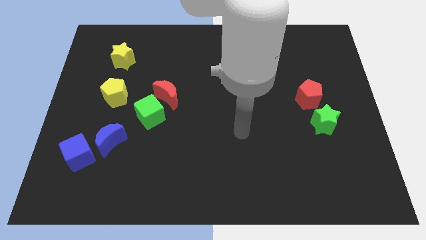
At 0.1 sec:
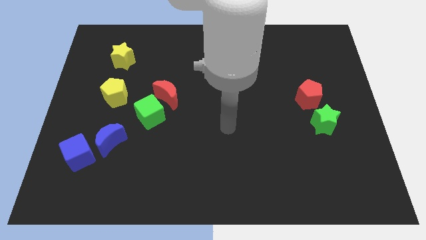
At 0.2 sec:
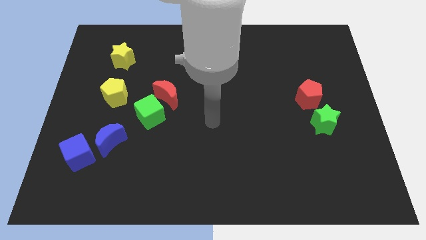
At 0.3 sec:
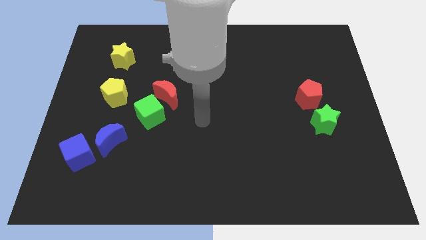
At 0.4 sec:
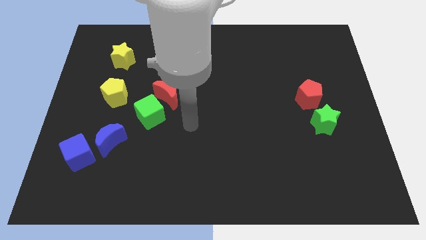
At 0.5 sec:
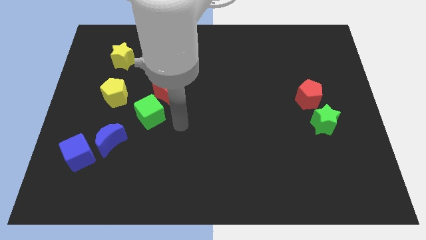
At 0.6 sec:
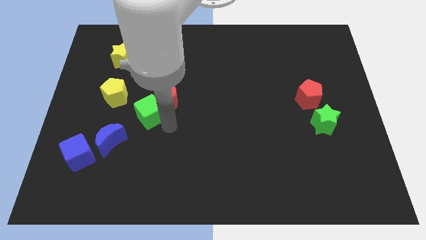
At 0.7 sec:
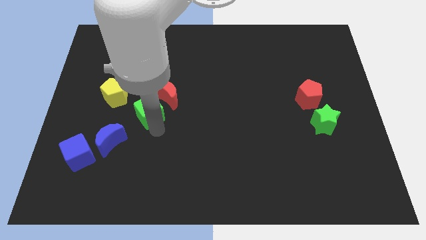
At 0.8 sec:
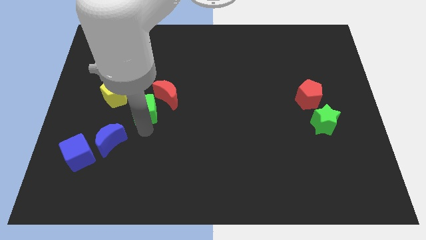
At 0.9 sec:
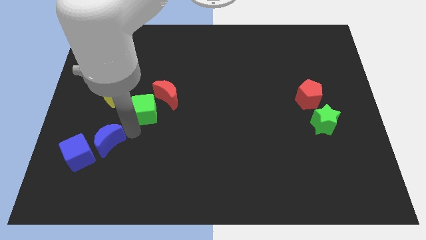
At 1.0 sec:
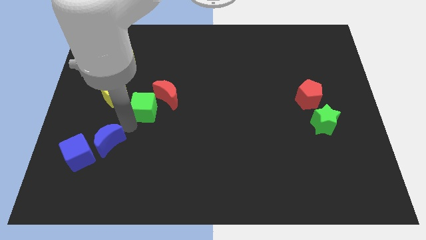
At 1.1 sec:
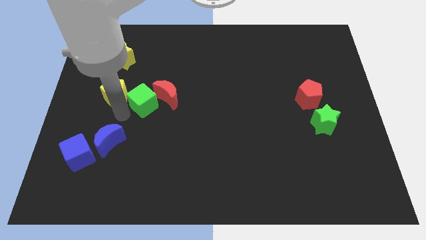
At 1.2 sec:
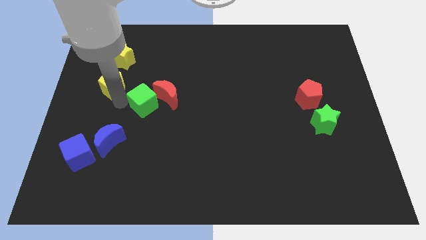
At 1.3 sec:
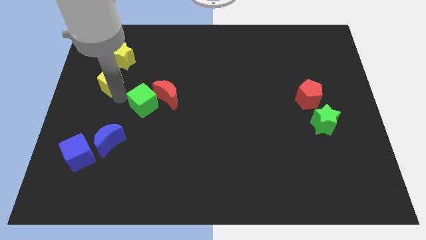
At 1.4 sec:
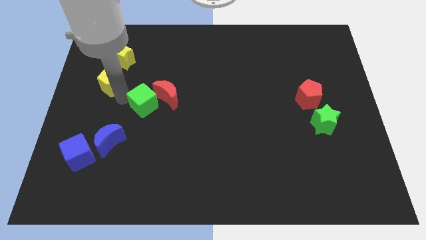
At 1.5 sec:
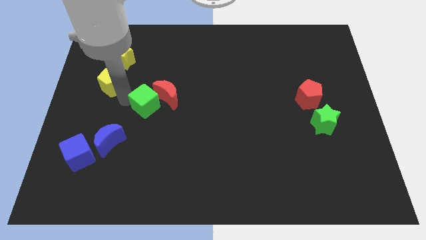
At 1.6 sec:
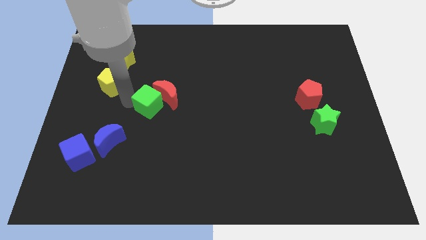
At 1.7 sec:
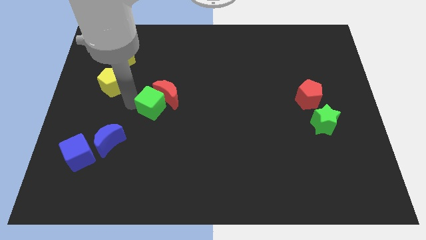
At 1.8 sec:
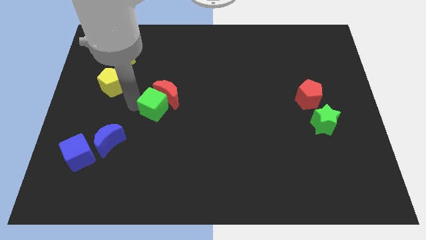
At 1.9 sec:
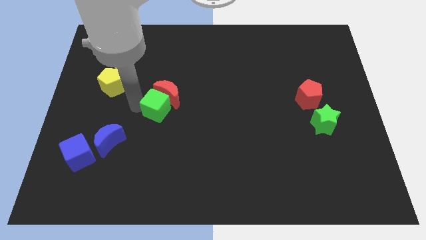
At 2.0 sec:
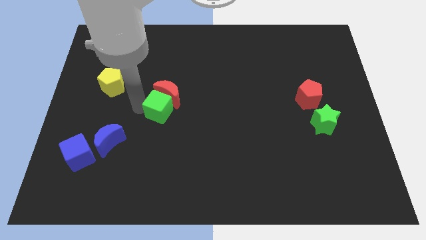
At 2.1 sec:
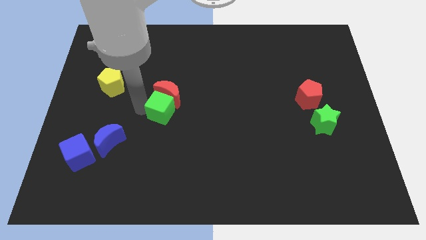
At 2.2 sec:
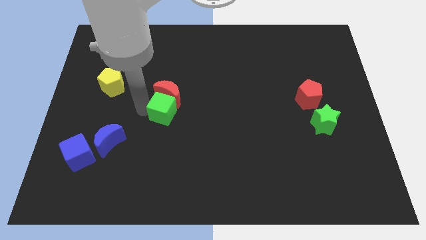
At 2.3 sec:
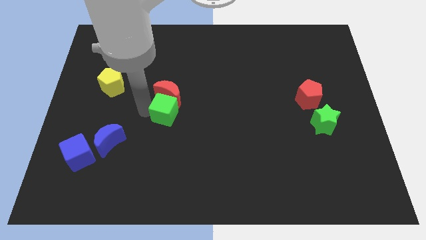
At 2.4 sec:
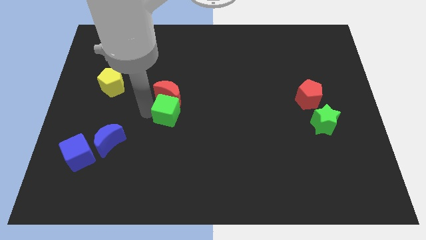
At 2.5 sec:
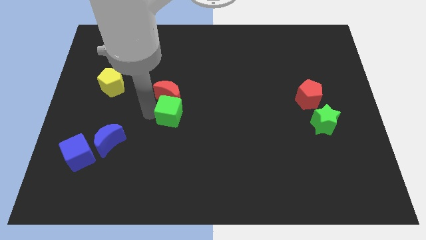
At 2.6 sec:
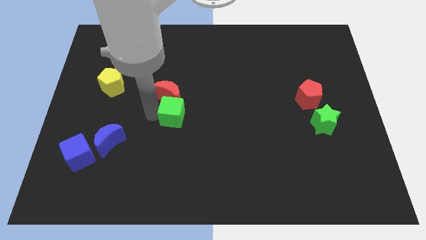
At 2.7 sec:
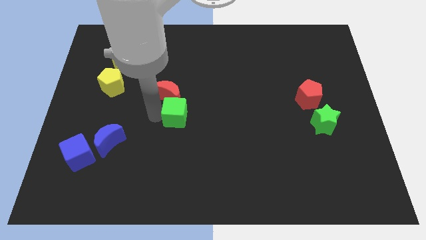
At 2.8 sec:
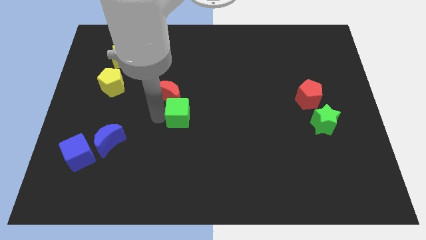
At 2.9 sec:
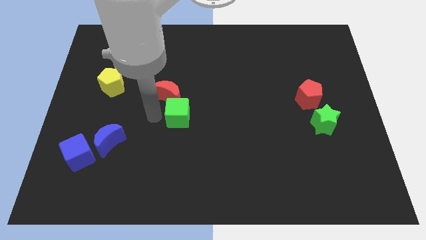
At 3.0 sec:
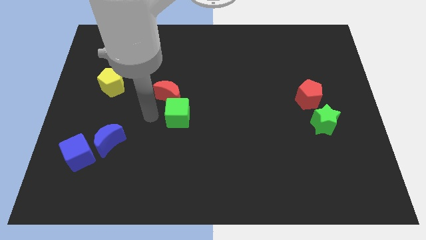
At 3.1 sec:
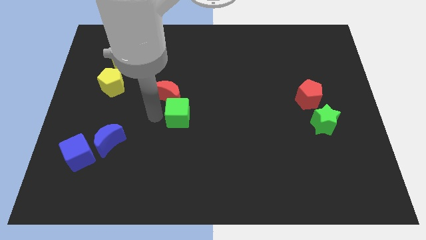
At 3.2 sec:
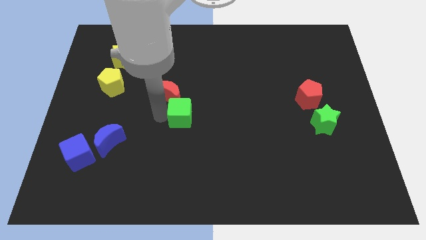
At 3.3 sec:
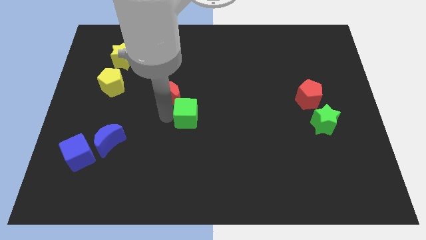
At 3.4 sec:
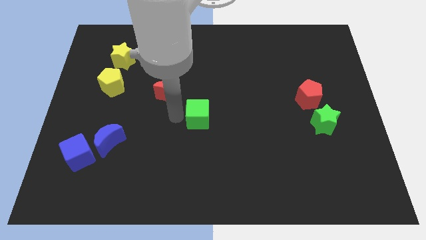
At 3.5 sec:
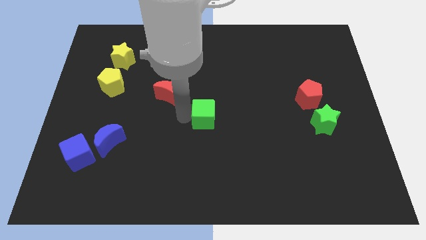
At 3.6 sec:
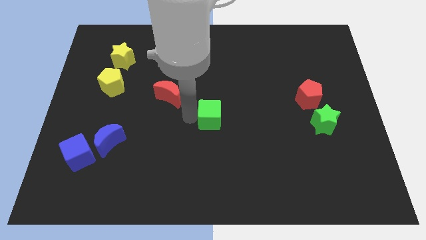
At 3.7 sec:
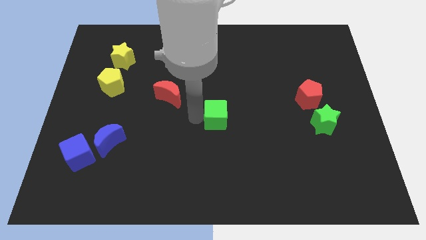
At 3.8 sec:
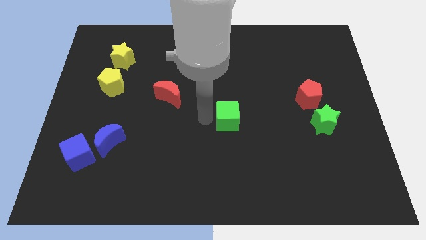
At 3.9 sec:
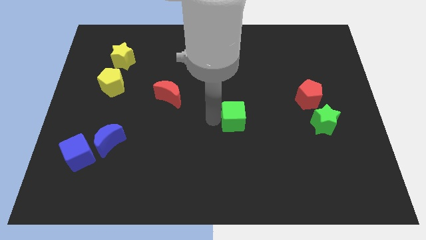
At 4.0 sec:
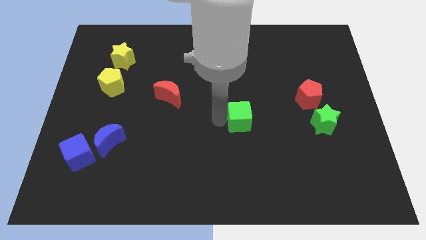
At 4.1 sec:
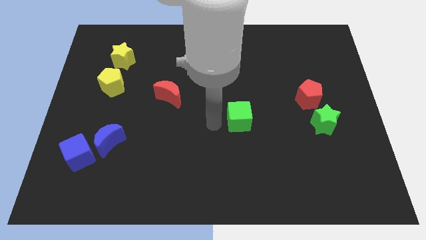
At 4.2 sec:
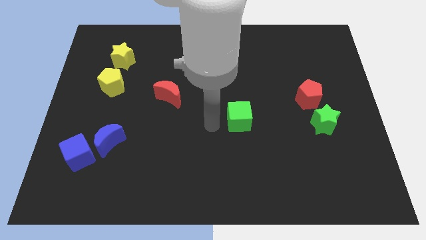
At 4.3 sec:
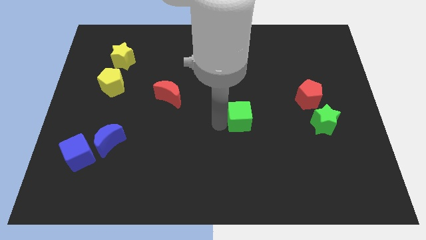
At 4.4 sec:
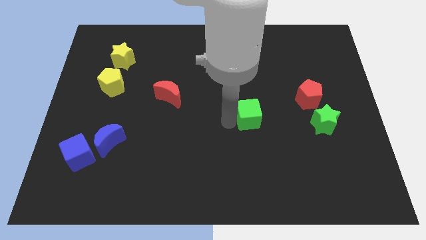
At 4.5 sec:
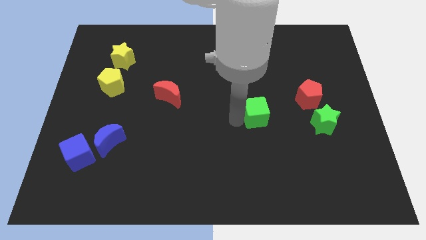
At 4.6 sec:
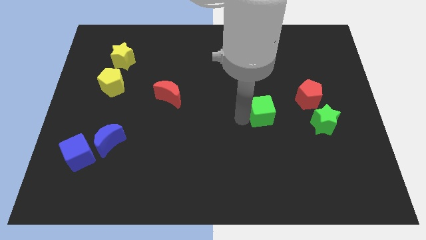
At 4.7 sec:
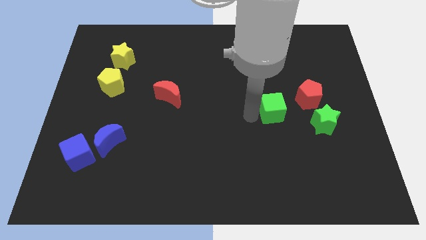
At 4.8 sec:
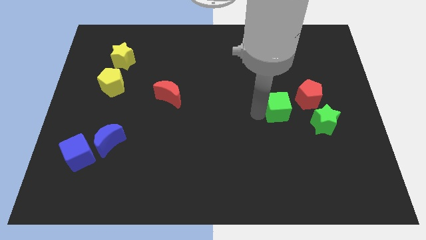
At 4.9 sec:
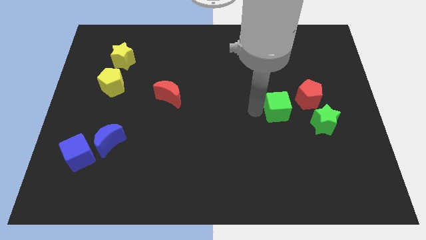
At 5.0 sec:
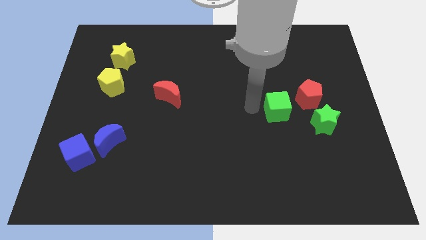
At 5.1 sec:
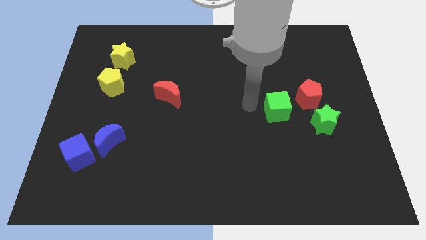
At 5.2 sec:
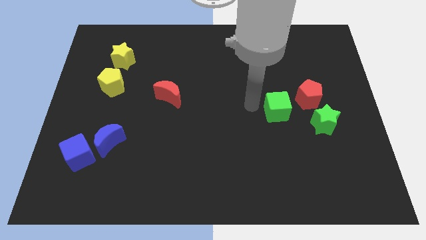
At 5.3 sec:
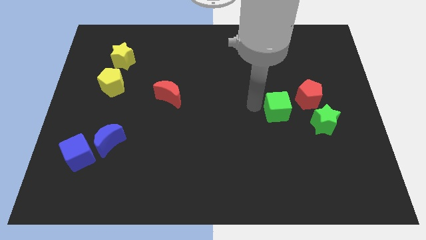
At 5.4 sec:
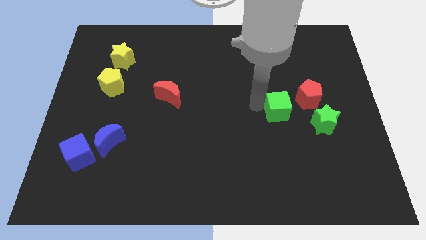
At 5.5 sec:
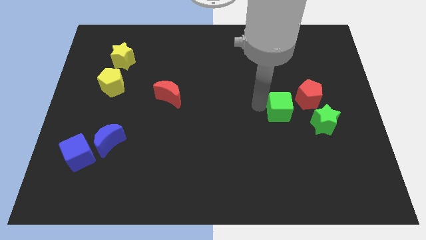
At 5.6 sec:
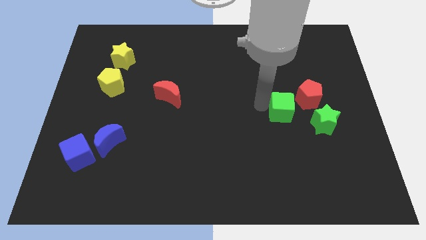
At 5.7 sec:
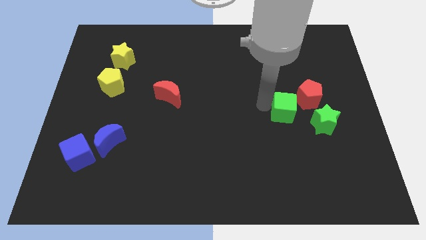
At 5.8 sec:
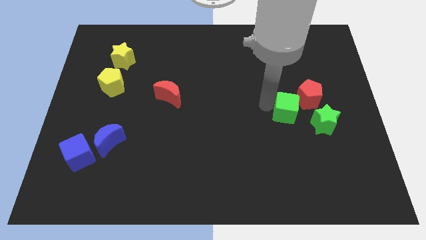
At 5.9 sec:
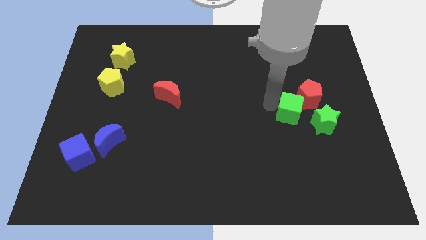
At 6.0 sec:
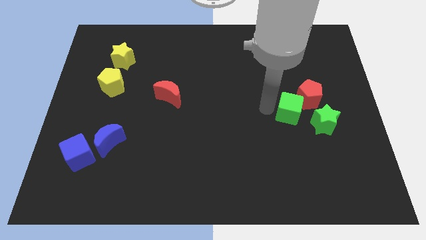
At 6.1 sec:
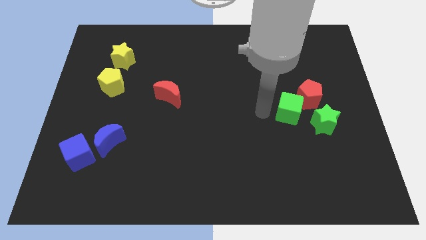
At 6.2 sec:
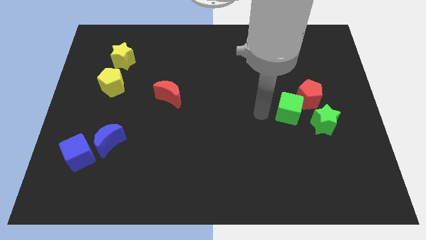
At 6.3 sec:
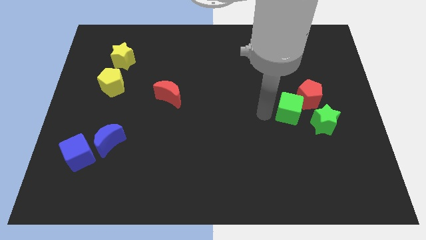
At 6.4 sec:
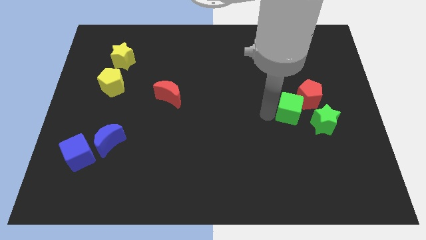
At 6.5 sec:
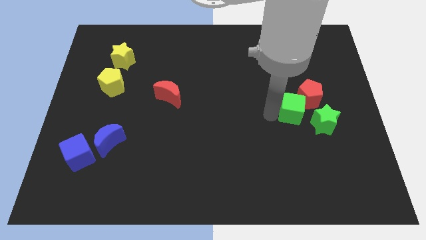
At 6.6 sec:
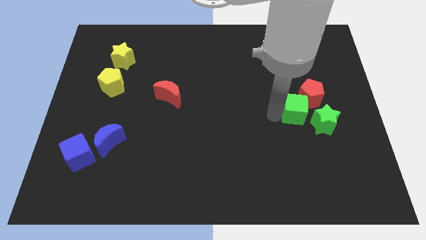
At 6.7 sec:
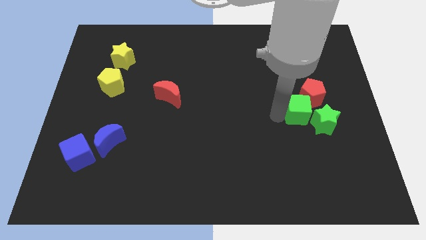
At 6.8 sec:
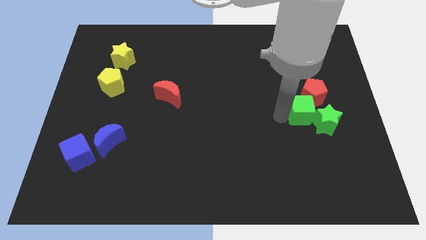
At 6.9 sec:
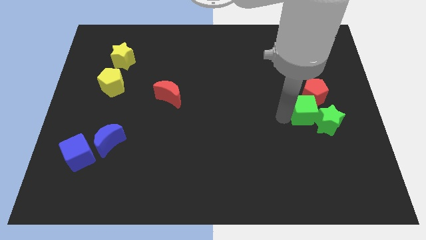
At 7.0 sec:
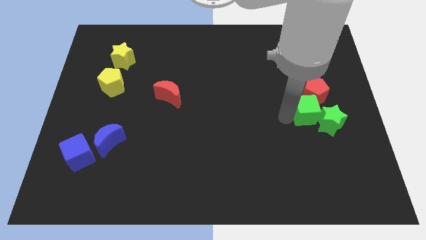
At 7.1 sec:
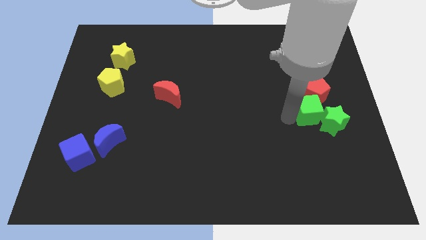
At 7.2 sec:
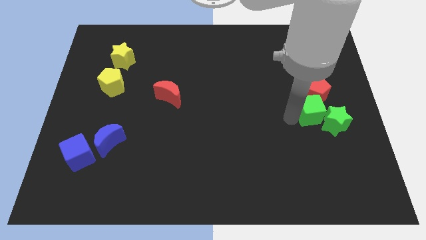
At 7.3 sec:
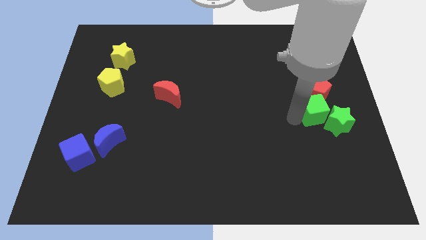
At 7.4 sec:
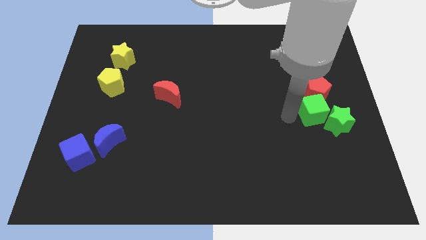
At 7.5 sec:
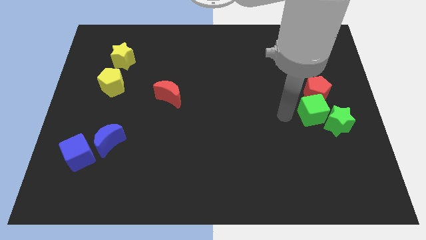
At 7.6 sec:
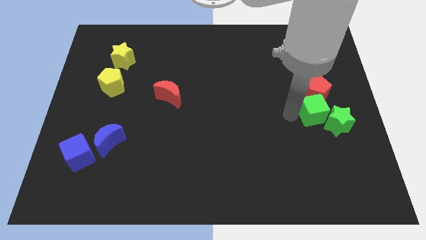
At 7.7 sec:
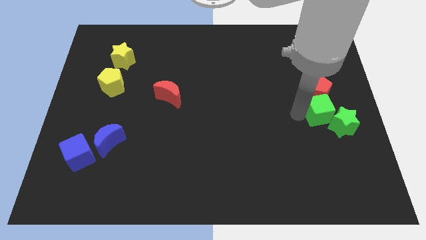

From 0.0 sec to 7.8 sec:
slide the green cube diagonally down and to the right of the red pentagon
